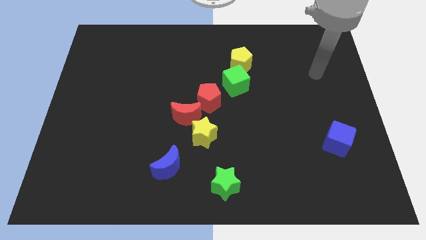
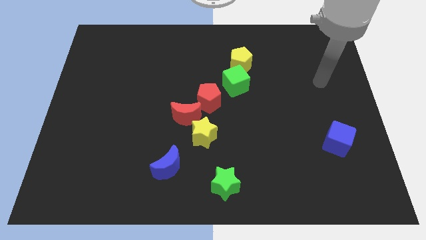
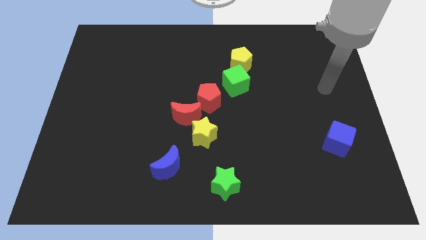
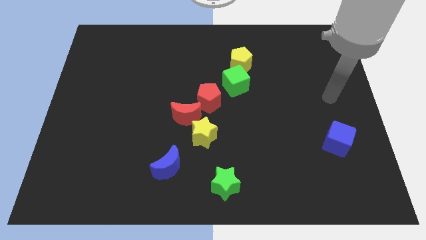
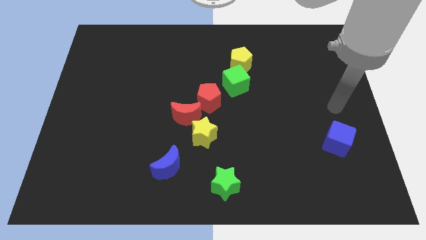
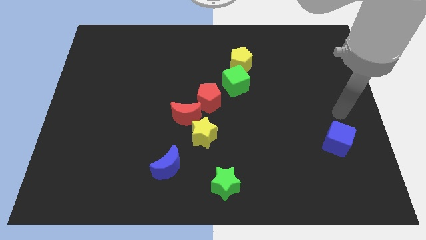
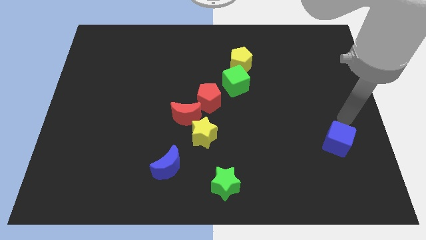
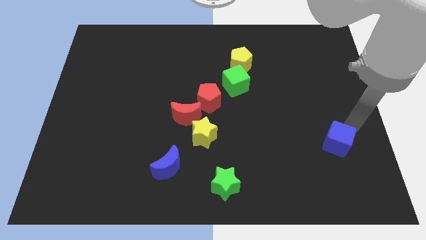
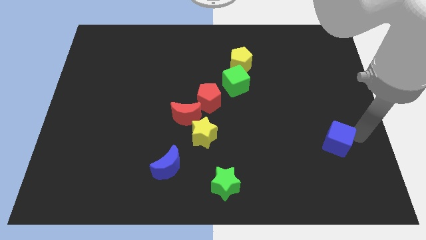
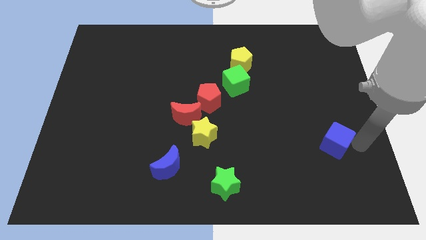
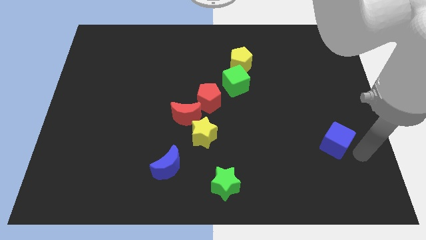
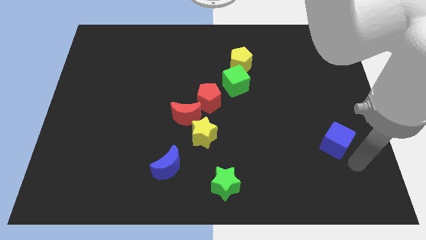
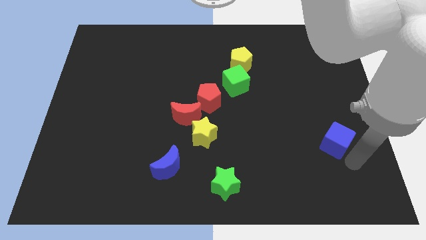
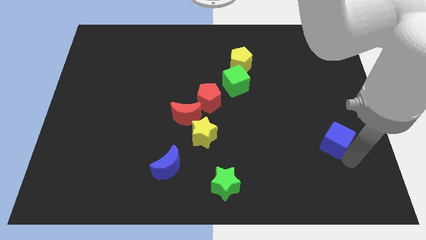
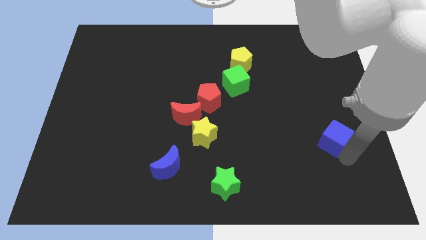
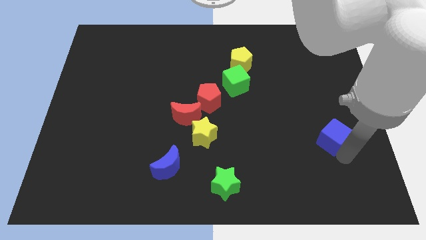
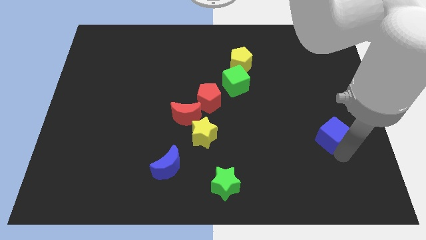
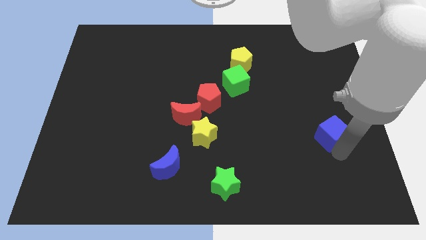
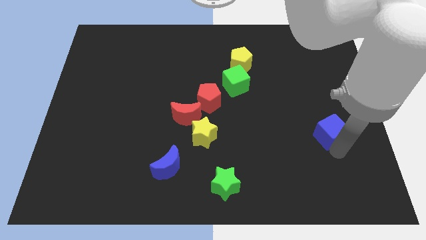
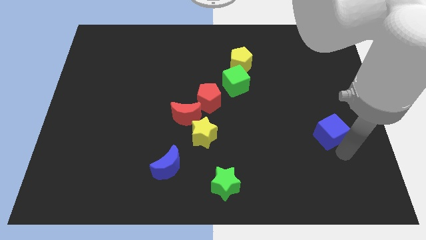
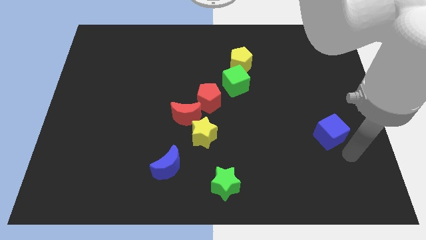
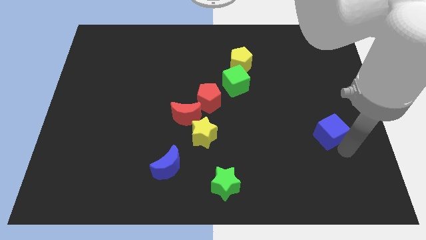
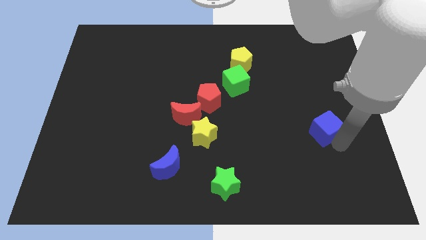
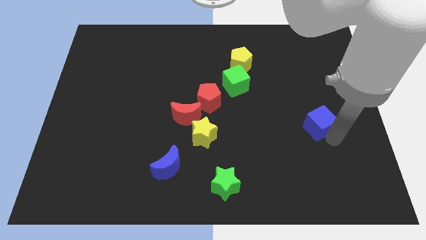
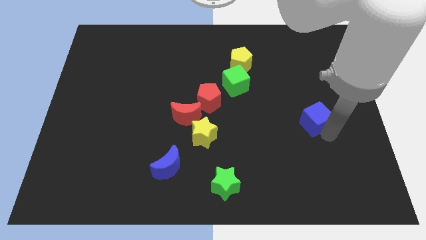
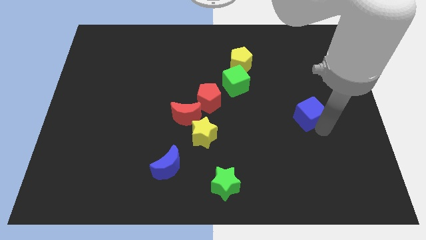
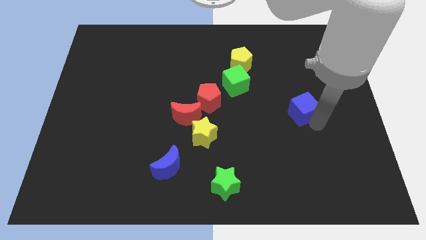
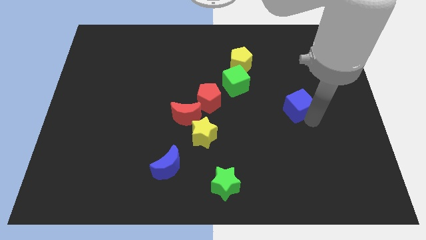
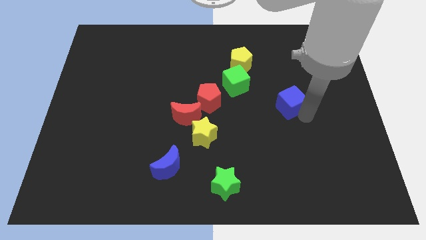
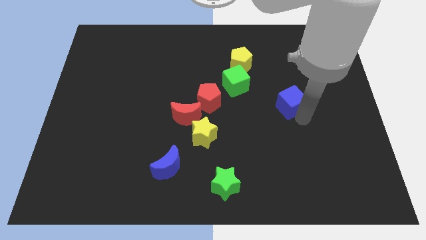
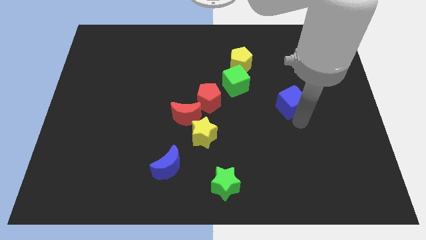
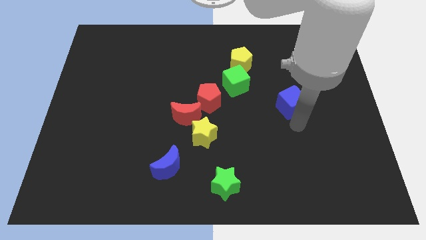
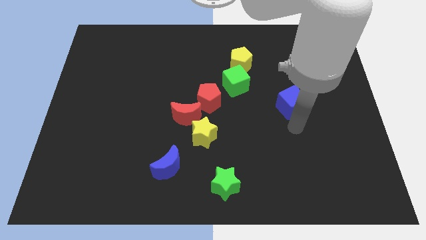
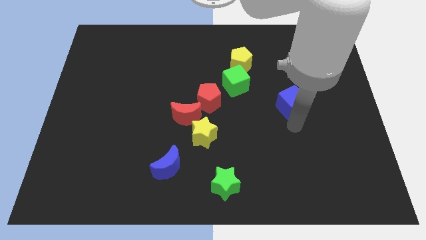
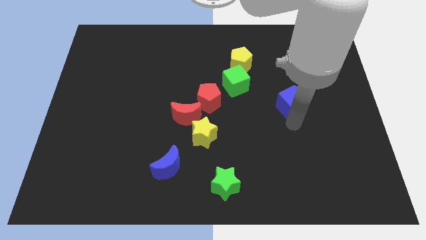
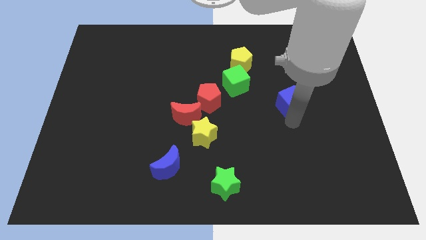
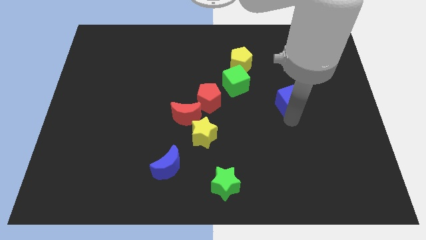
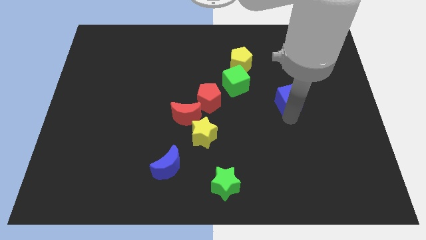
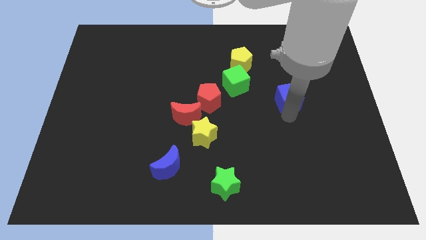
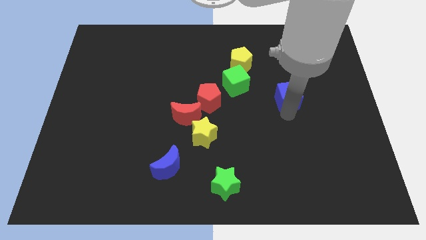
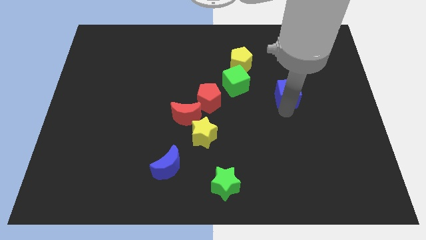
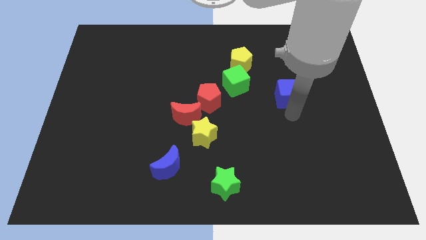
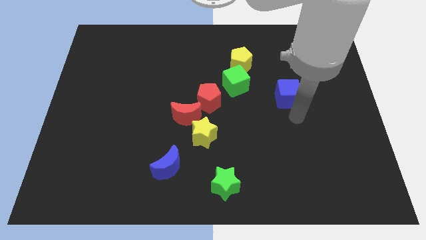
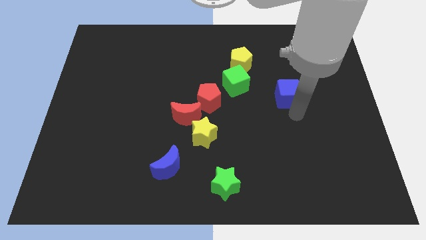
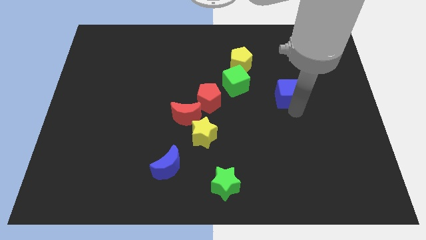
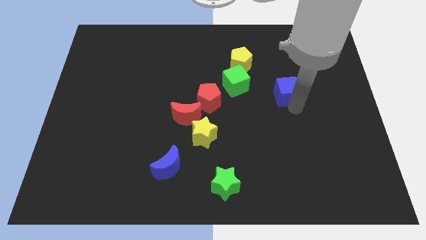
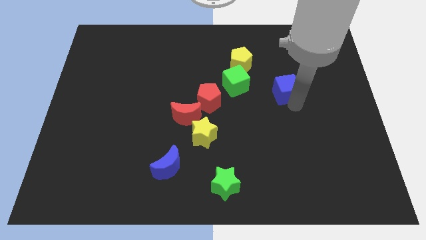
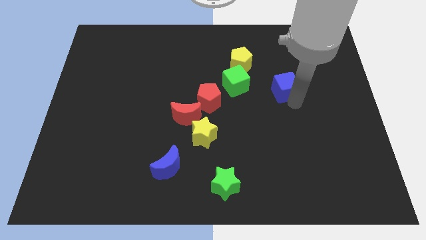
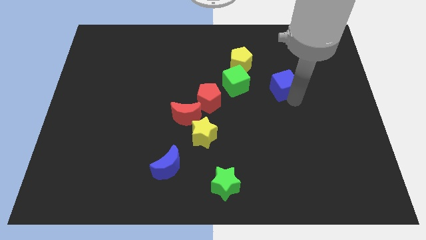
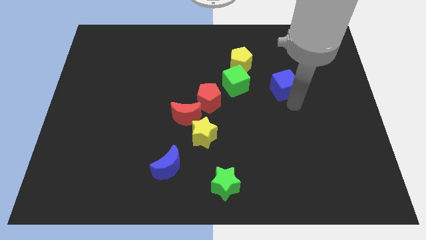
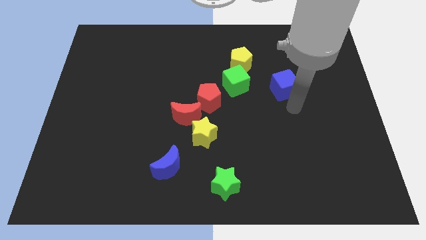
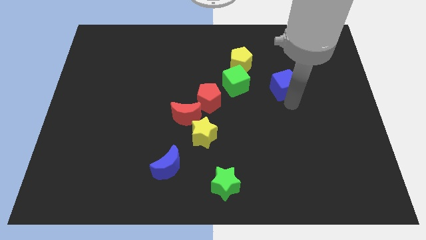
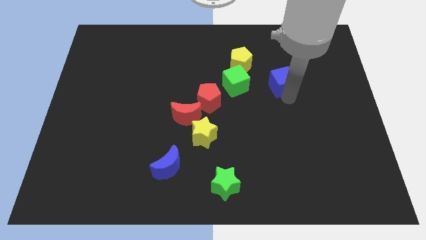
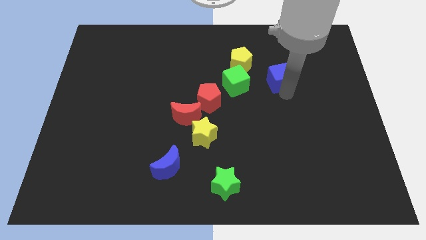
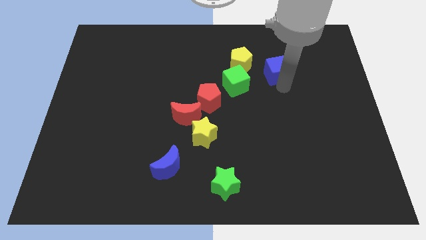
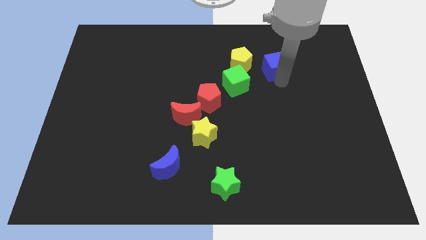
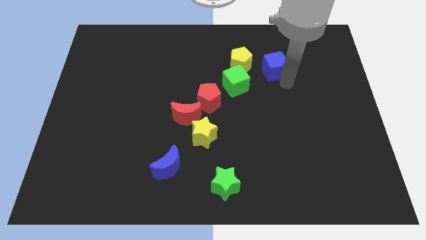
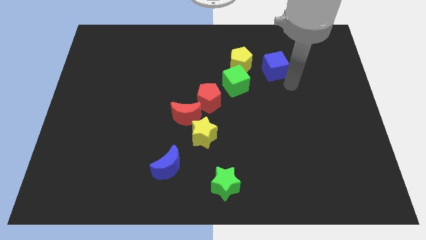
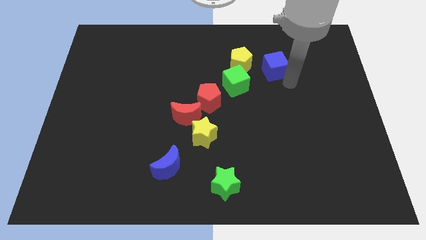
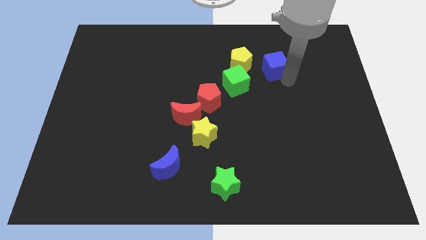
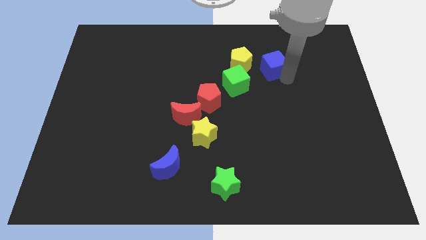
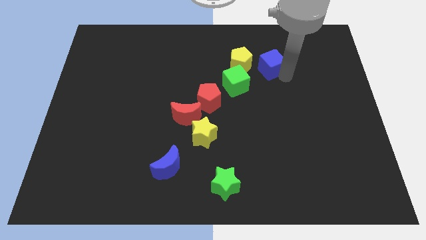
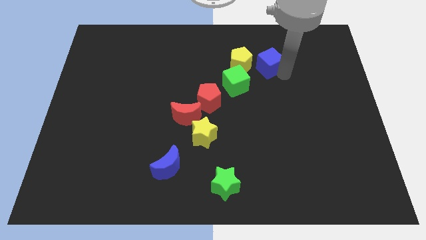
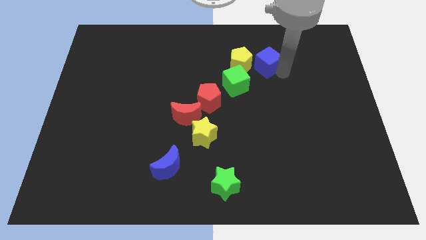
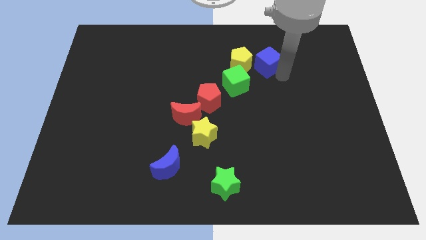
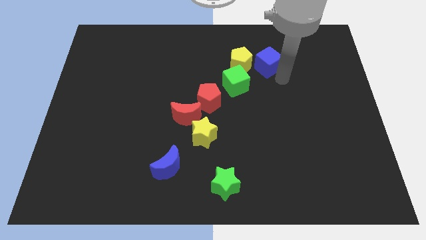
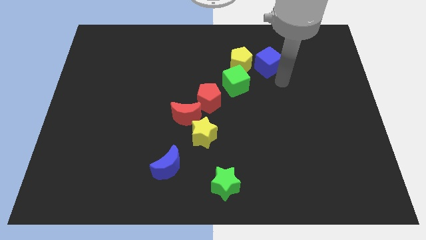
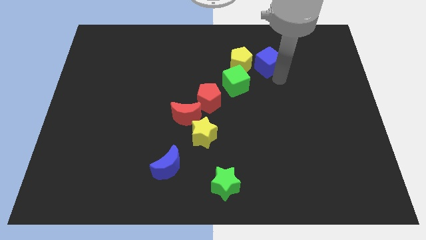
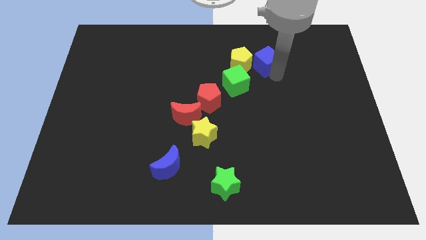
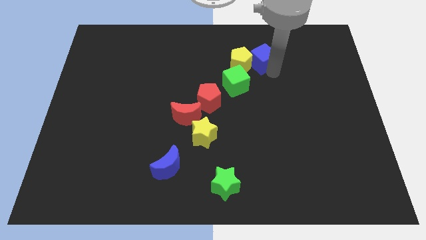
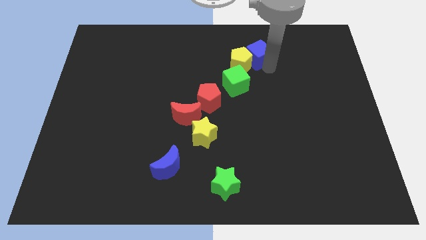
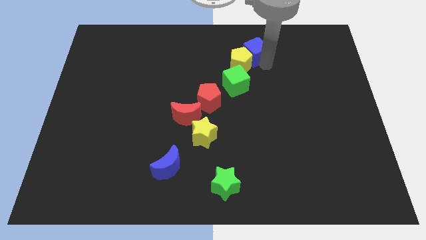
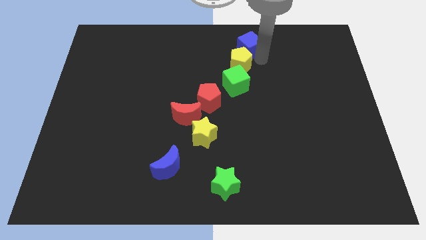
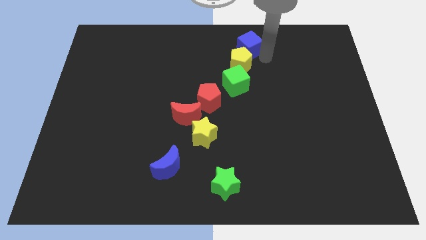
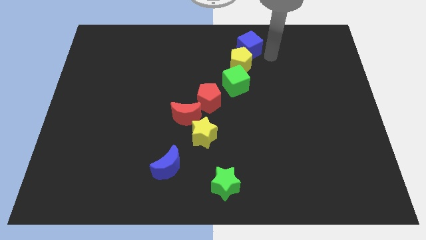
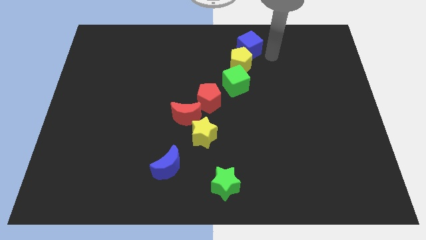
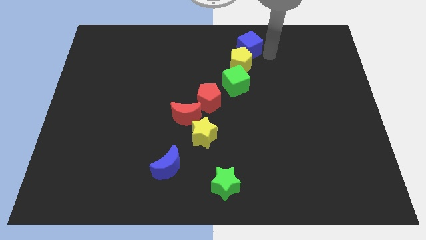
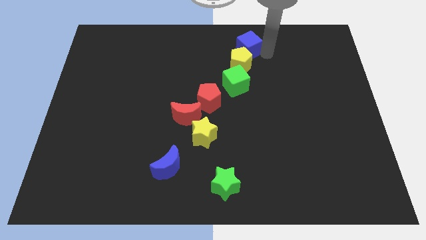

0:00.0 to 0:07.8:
move the blue cube to the top side
